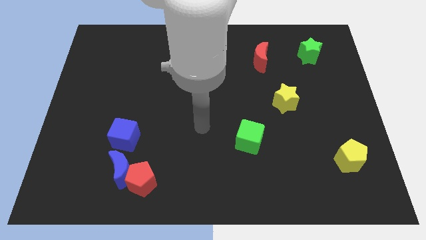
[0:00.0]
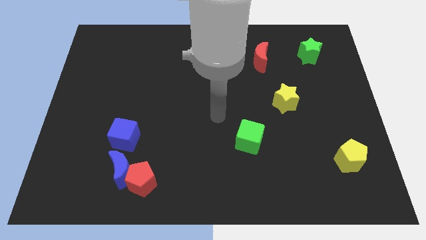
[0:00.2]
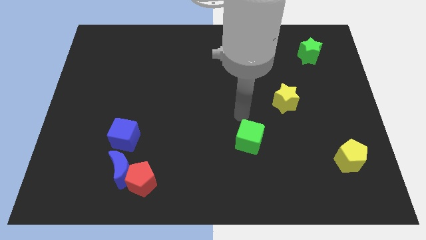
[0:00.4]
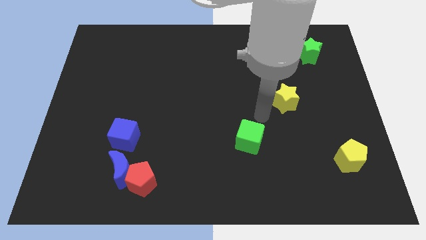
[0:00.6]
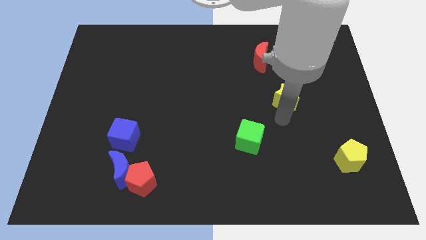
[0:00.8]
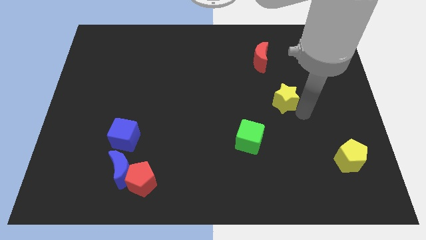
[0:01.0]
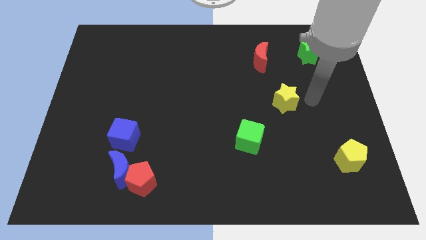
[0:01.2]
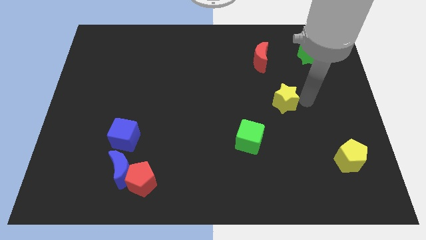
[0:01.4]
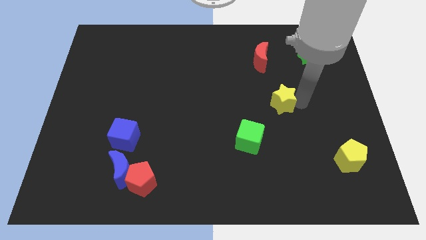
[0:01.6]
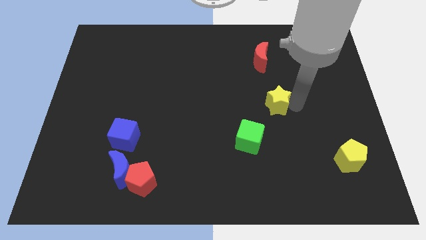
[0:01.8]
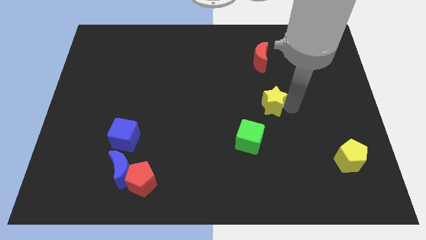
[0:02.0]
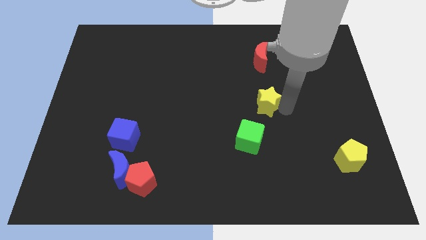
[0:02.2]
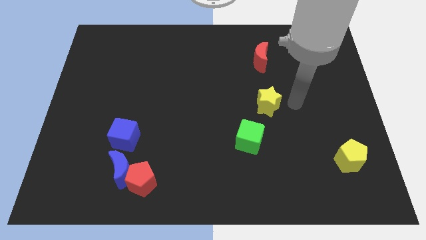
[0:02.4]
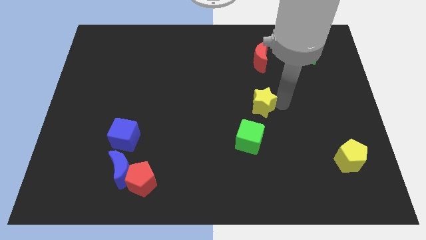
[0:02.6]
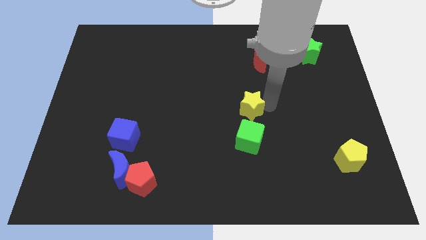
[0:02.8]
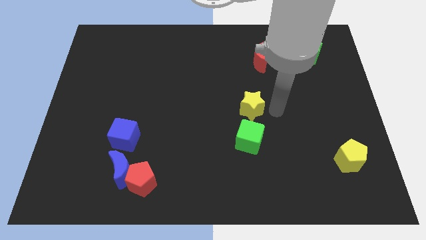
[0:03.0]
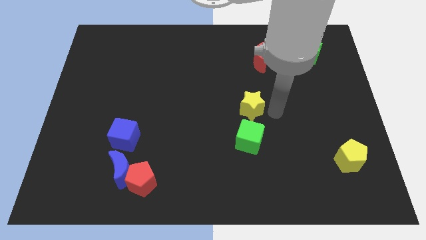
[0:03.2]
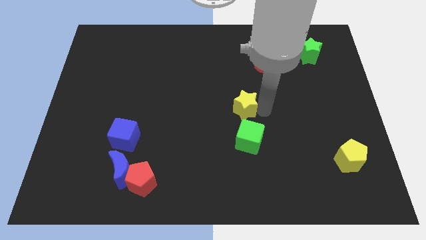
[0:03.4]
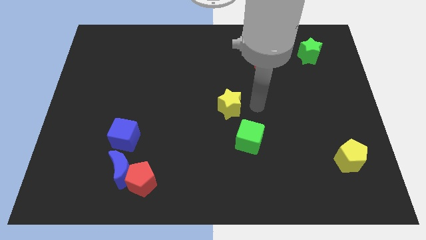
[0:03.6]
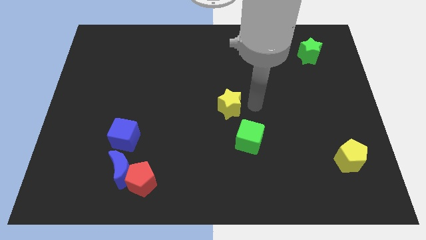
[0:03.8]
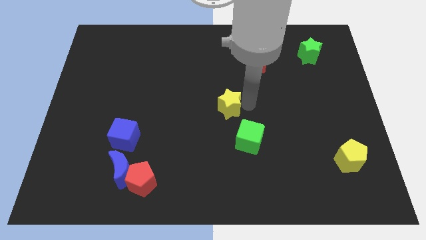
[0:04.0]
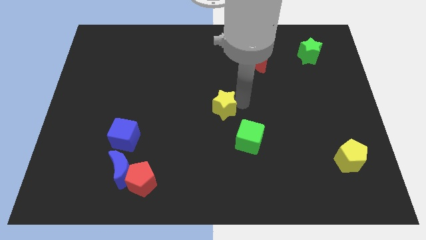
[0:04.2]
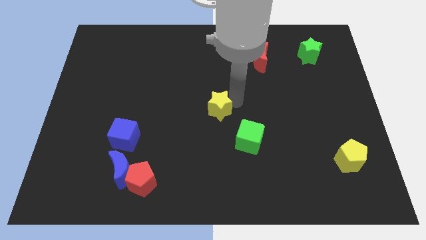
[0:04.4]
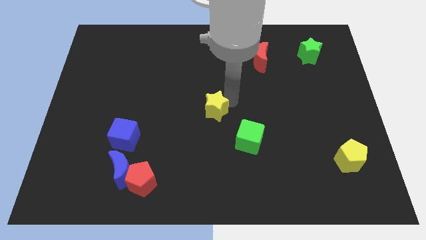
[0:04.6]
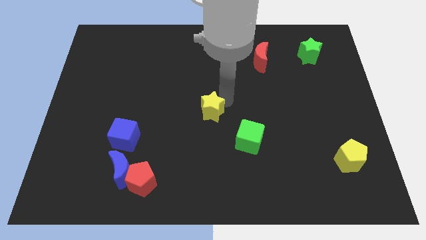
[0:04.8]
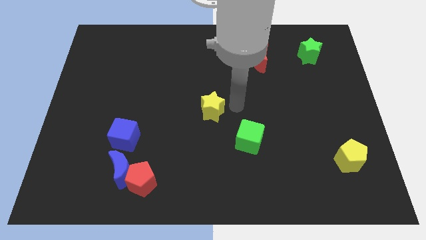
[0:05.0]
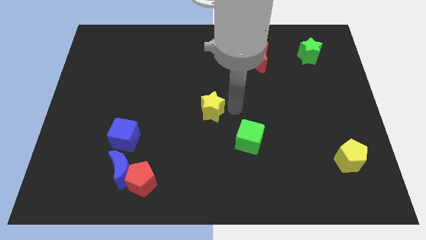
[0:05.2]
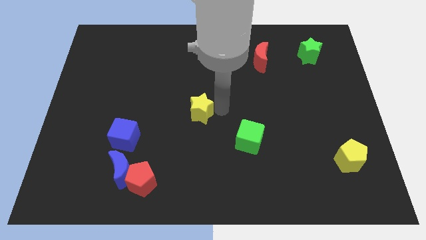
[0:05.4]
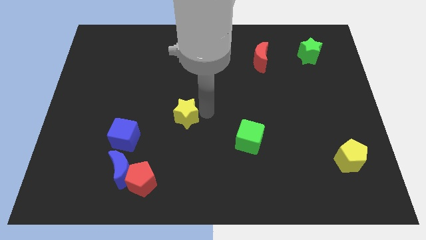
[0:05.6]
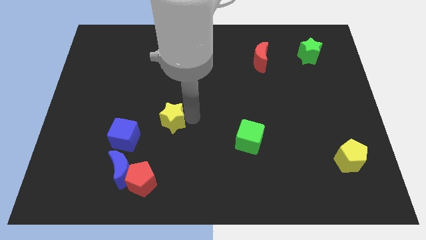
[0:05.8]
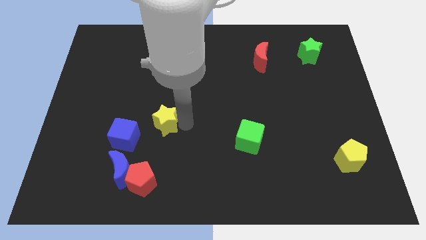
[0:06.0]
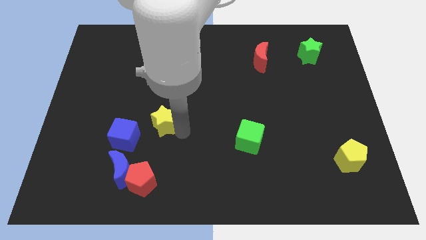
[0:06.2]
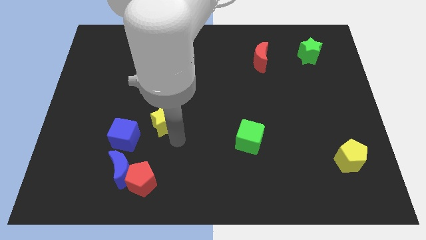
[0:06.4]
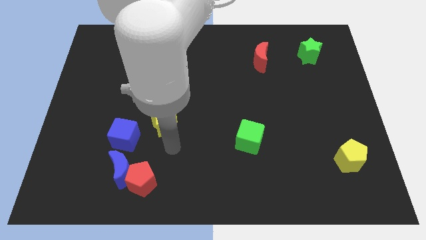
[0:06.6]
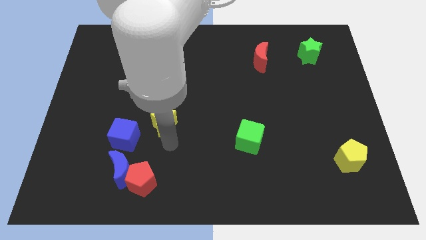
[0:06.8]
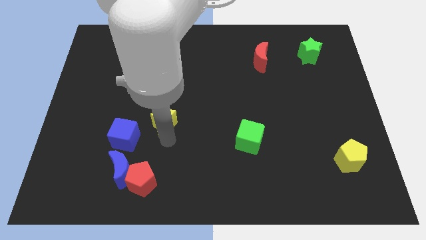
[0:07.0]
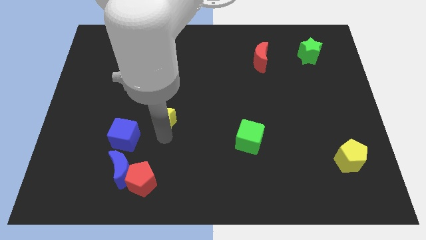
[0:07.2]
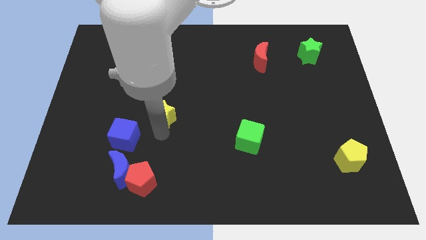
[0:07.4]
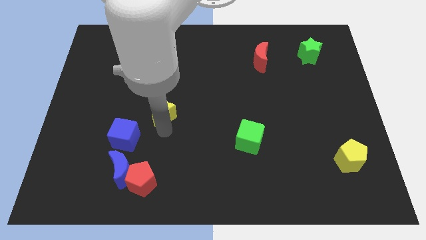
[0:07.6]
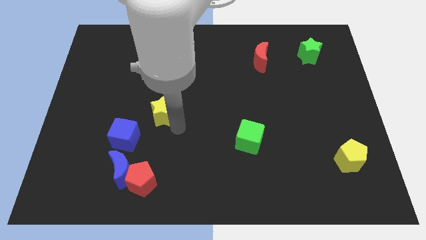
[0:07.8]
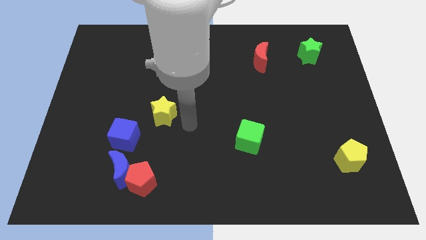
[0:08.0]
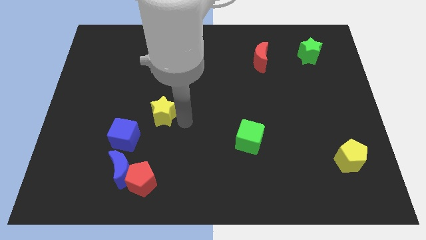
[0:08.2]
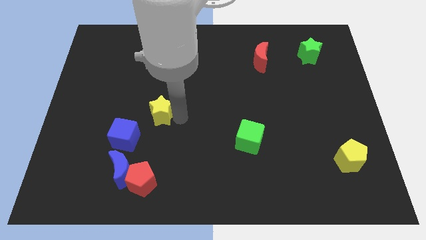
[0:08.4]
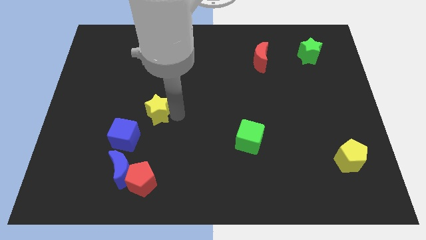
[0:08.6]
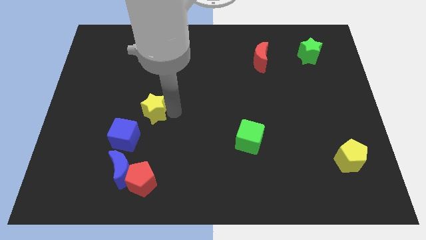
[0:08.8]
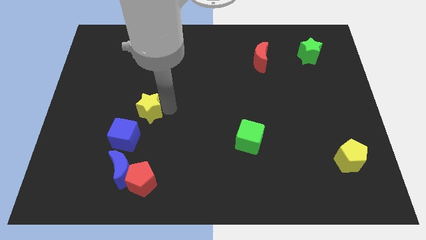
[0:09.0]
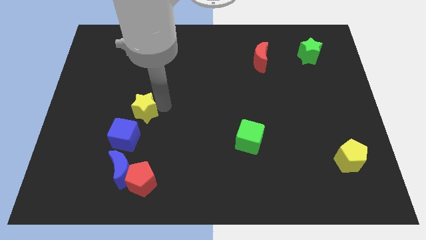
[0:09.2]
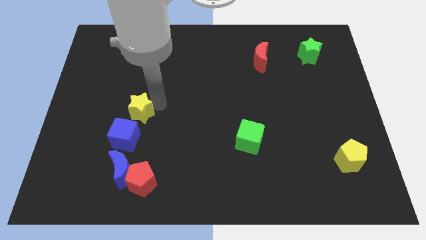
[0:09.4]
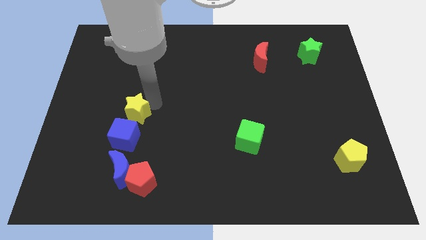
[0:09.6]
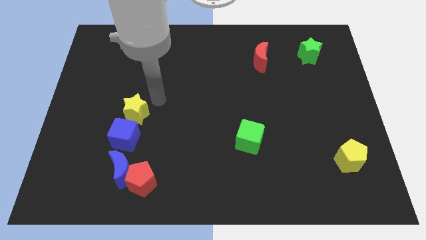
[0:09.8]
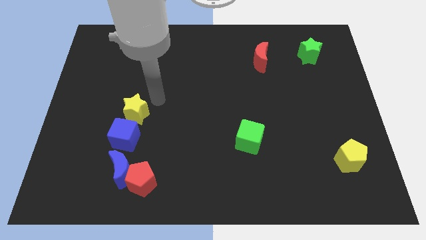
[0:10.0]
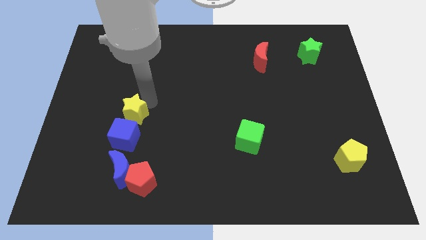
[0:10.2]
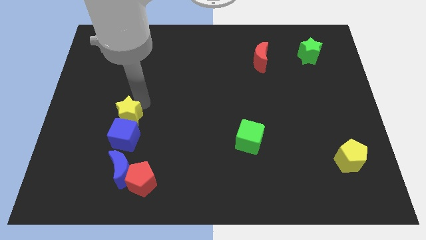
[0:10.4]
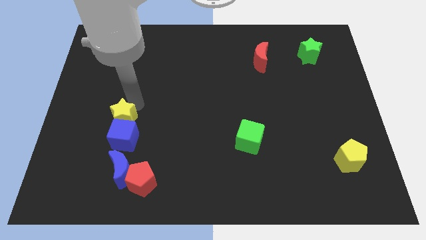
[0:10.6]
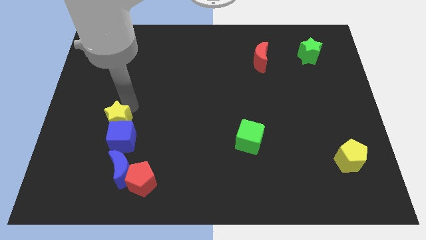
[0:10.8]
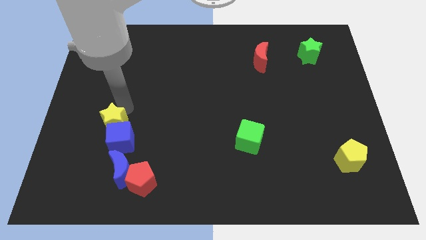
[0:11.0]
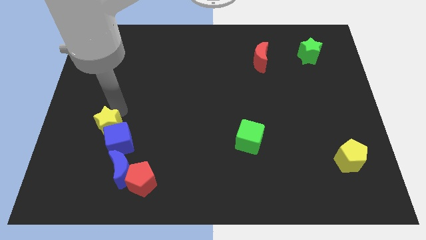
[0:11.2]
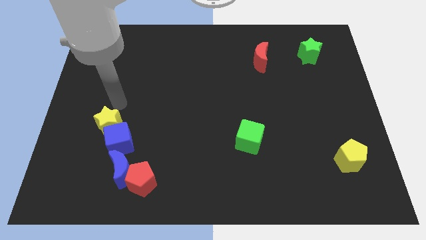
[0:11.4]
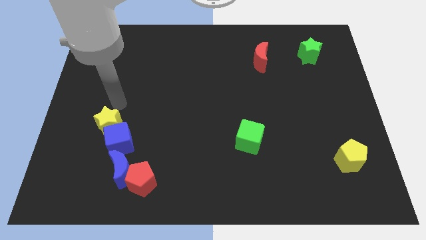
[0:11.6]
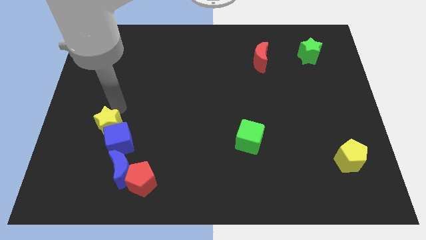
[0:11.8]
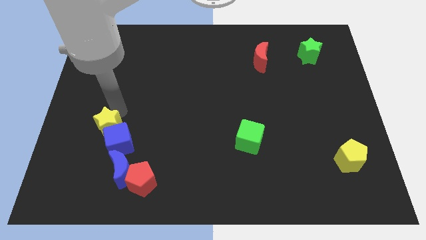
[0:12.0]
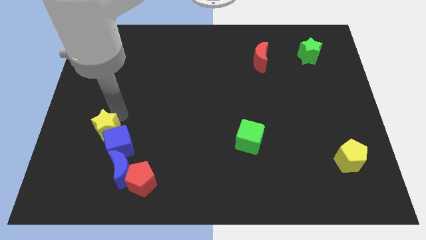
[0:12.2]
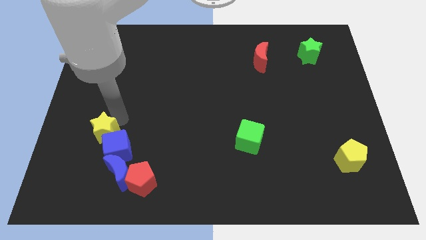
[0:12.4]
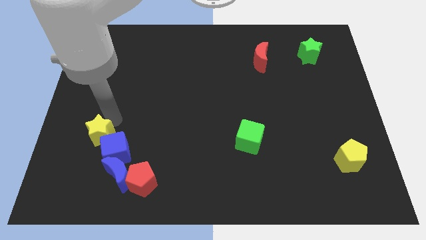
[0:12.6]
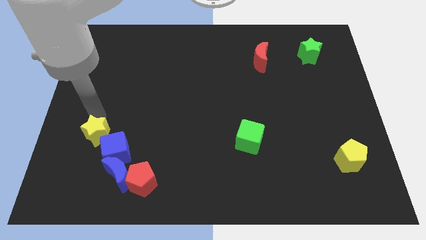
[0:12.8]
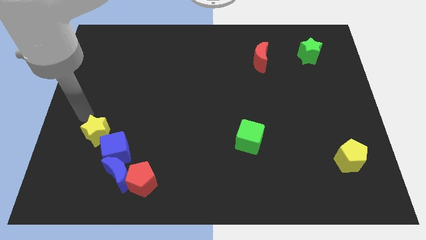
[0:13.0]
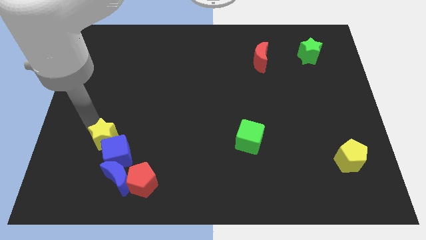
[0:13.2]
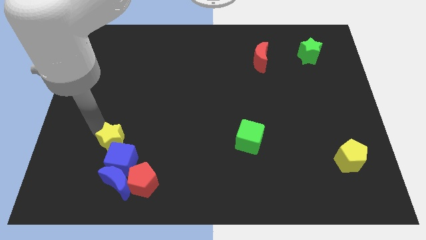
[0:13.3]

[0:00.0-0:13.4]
slide the yellow star to the top left side of the red pentagon
